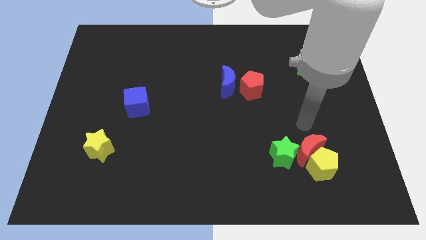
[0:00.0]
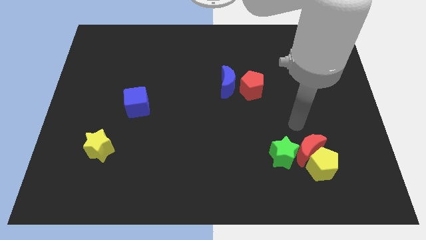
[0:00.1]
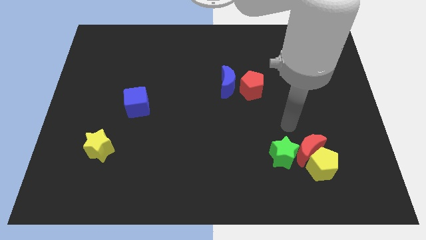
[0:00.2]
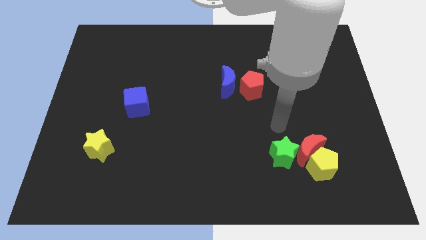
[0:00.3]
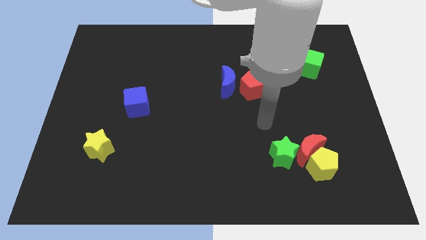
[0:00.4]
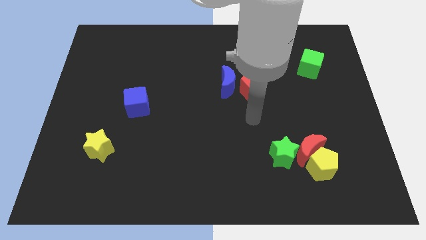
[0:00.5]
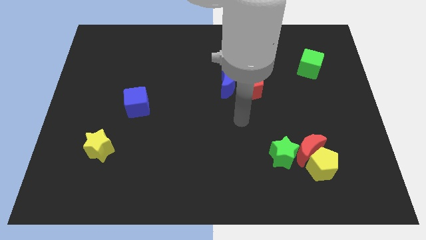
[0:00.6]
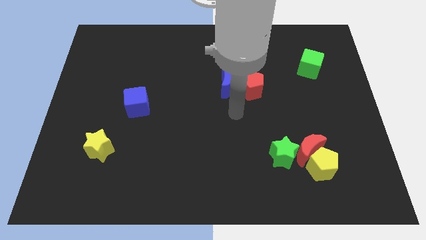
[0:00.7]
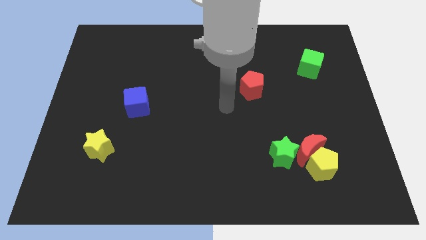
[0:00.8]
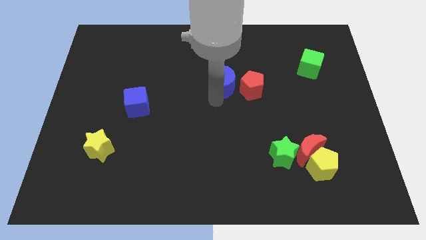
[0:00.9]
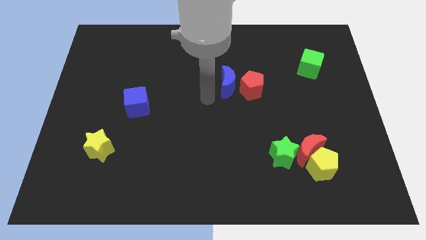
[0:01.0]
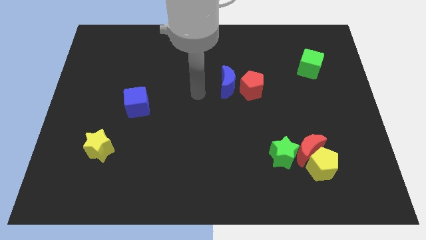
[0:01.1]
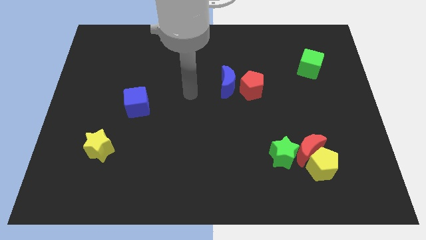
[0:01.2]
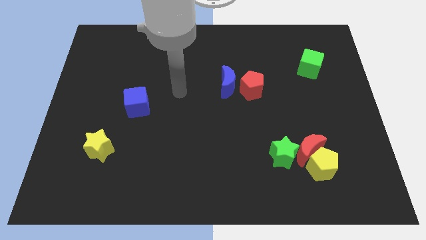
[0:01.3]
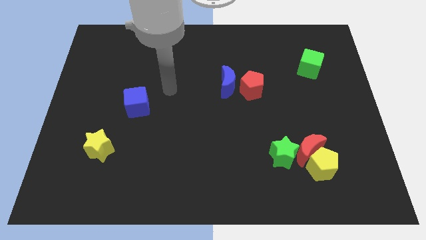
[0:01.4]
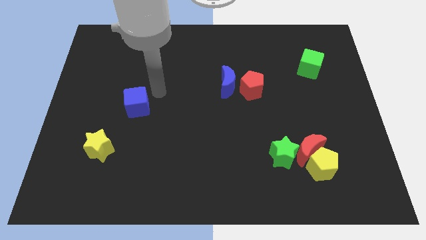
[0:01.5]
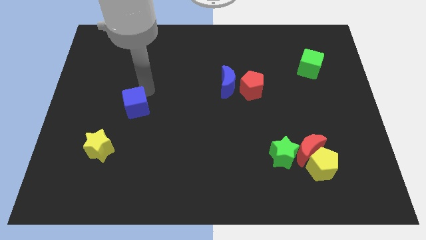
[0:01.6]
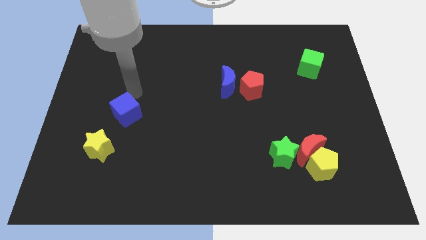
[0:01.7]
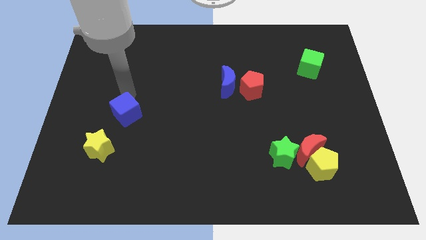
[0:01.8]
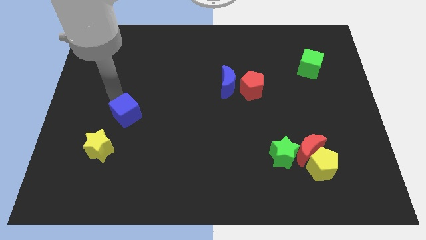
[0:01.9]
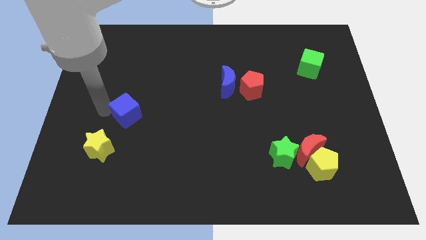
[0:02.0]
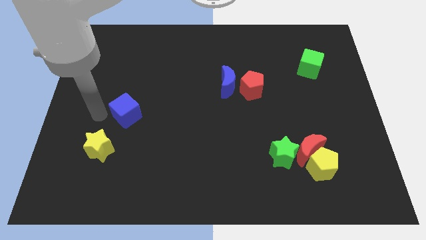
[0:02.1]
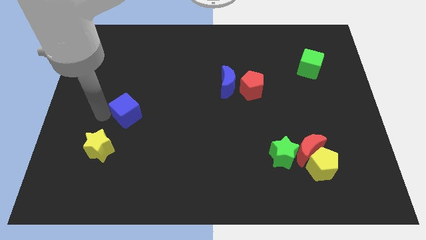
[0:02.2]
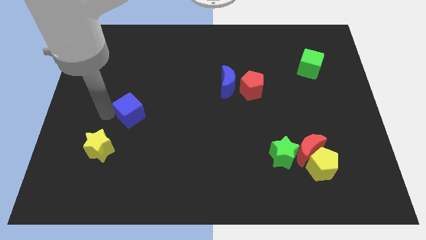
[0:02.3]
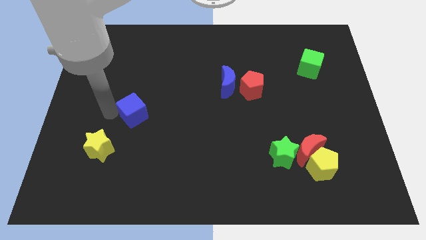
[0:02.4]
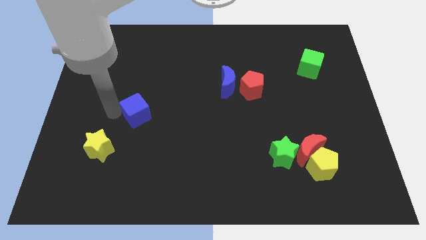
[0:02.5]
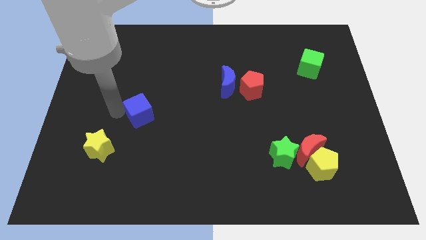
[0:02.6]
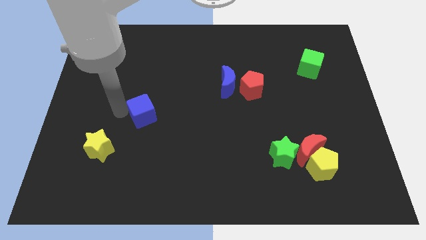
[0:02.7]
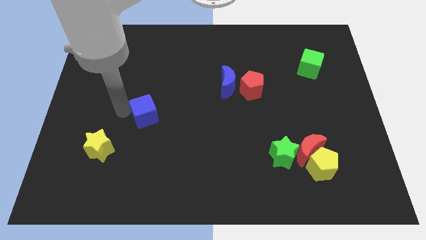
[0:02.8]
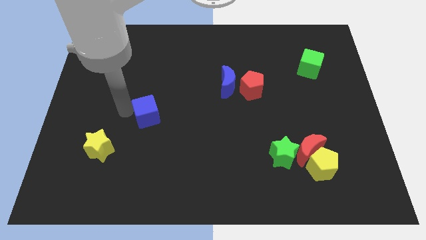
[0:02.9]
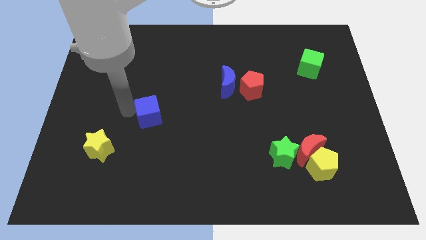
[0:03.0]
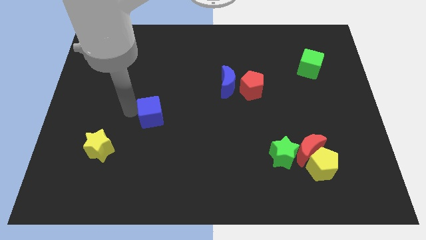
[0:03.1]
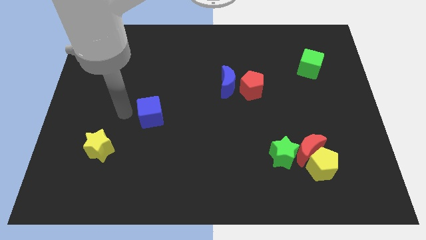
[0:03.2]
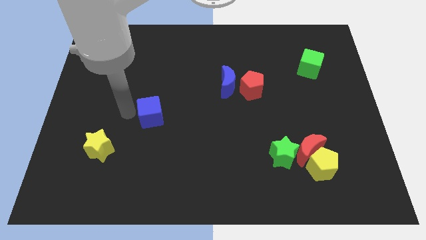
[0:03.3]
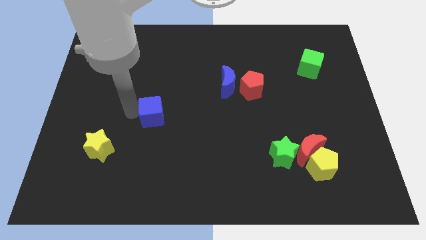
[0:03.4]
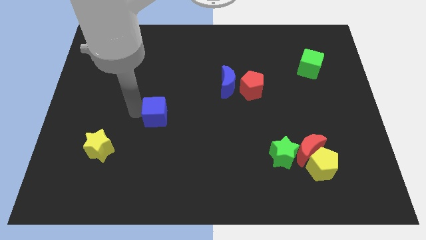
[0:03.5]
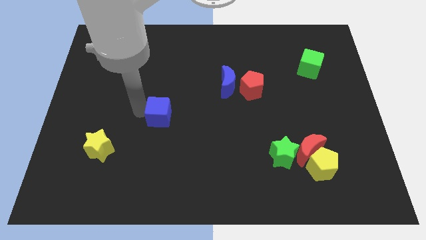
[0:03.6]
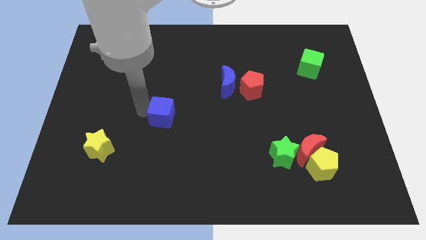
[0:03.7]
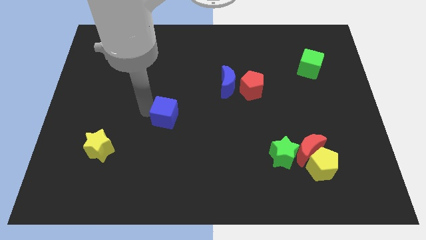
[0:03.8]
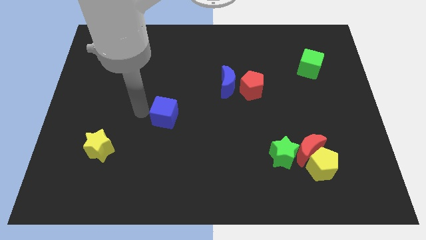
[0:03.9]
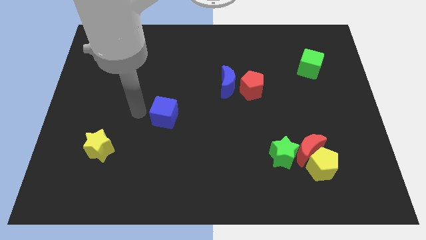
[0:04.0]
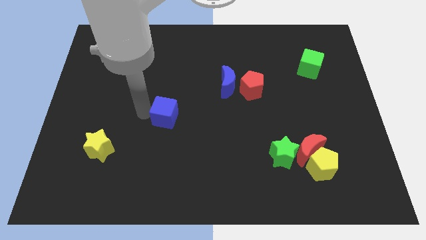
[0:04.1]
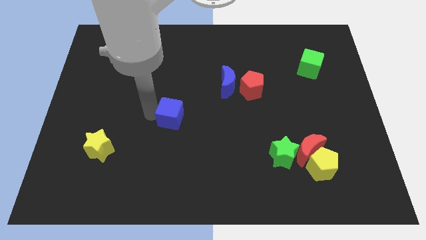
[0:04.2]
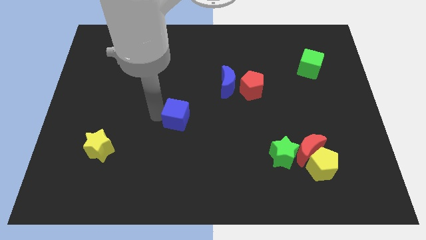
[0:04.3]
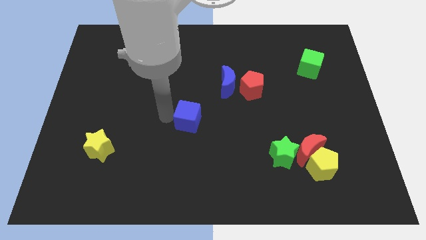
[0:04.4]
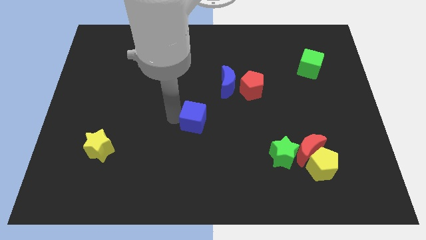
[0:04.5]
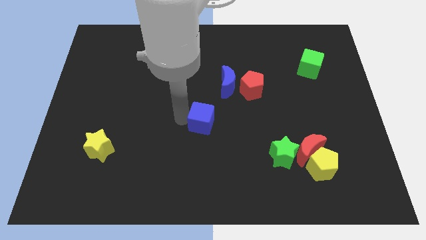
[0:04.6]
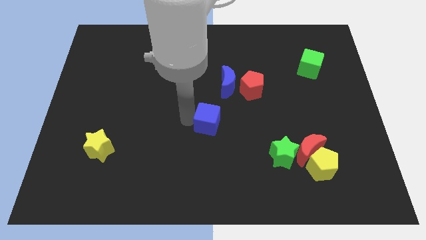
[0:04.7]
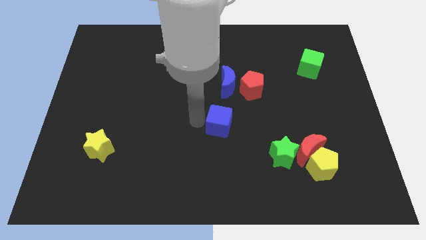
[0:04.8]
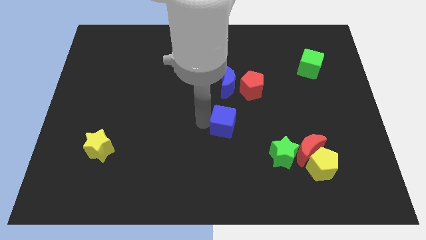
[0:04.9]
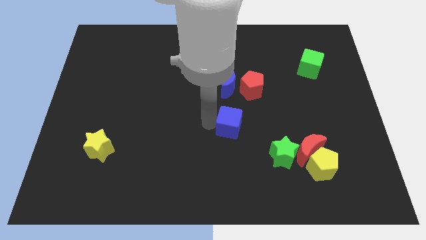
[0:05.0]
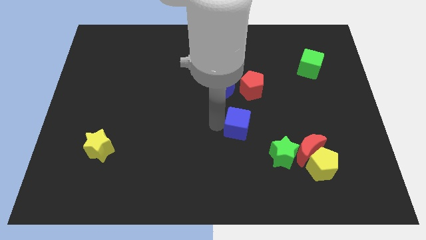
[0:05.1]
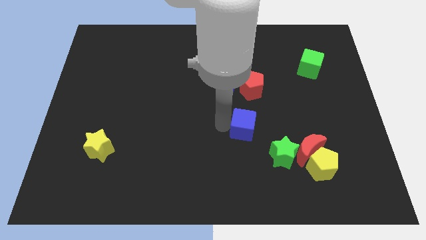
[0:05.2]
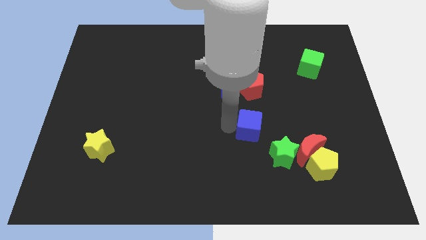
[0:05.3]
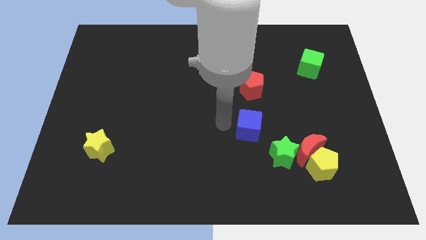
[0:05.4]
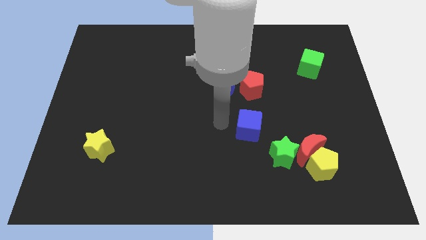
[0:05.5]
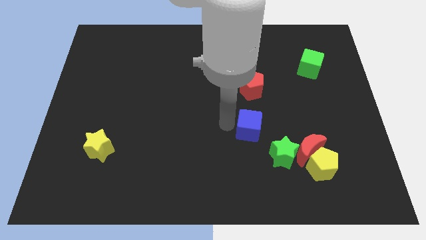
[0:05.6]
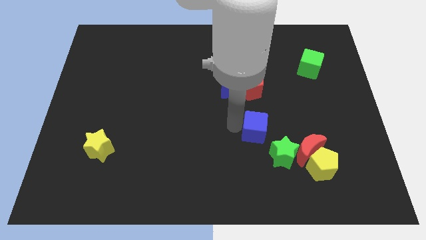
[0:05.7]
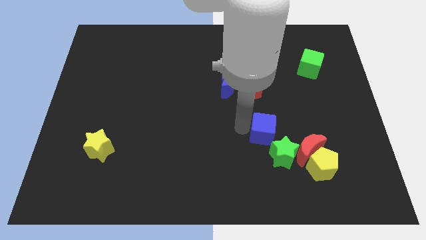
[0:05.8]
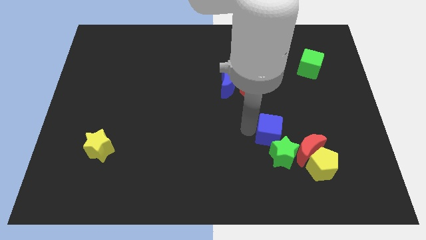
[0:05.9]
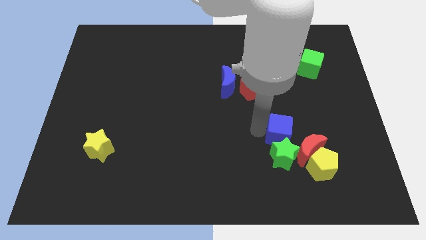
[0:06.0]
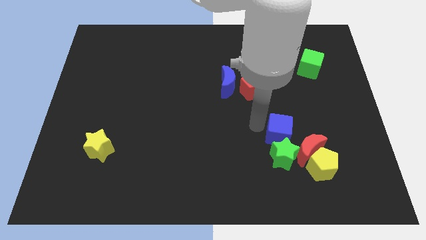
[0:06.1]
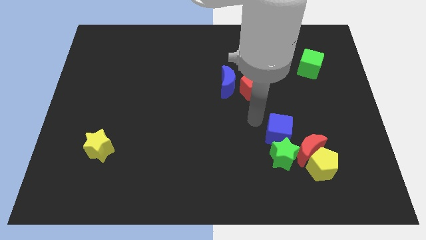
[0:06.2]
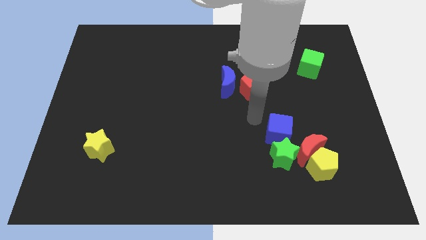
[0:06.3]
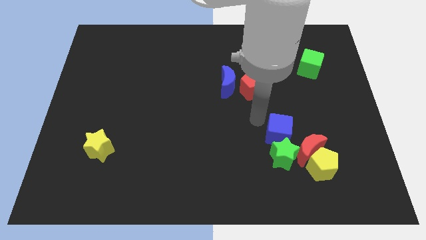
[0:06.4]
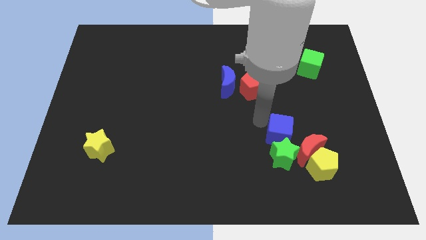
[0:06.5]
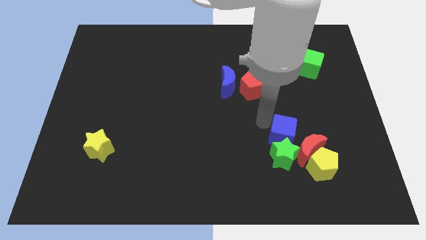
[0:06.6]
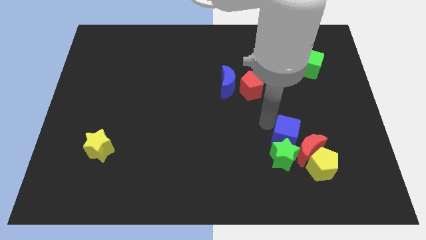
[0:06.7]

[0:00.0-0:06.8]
slide the blue cube to the red moon
